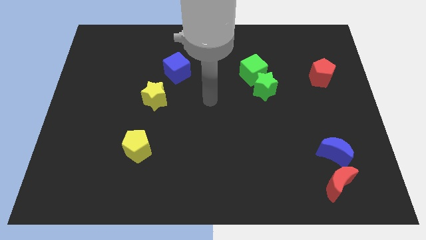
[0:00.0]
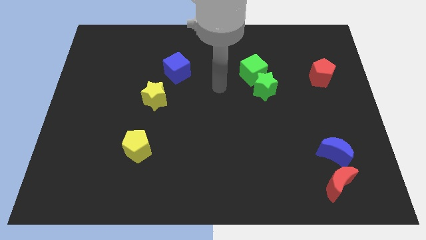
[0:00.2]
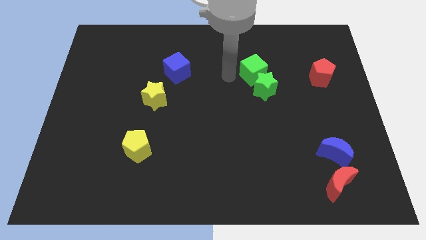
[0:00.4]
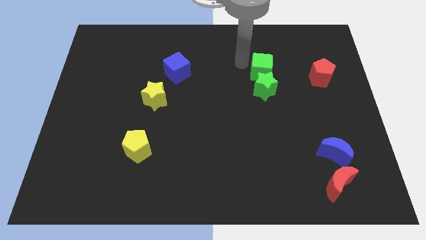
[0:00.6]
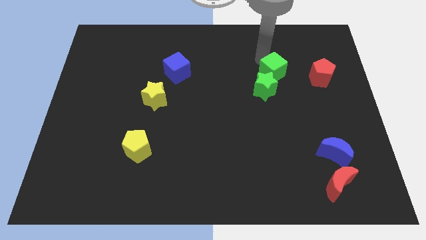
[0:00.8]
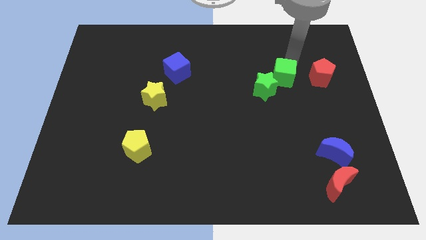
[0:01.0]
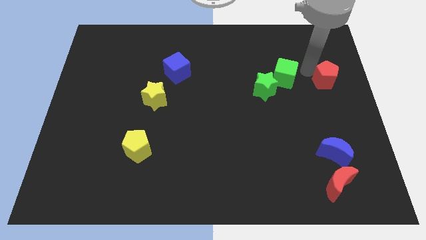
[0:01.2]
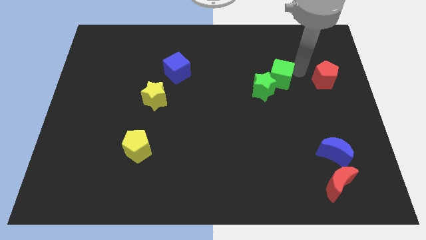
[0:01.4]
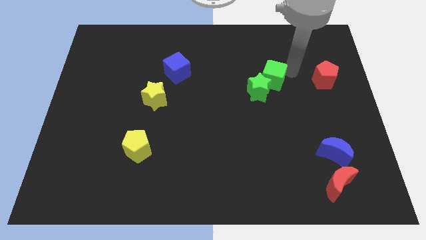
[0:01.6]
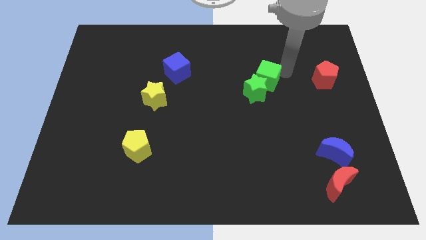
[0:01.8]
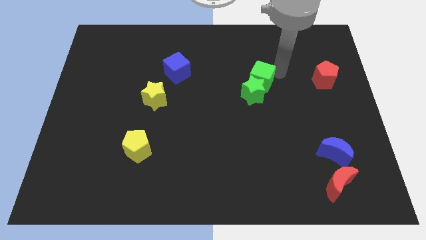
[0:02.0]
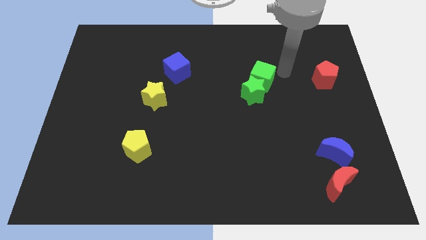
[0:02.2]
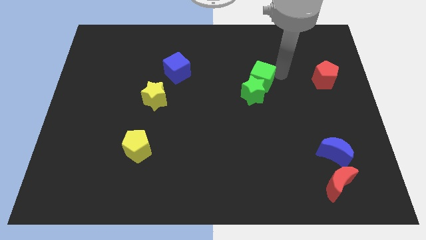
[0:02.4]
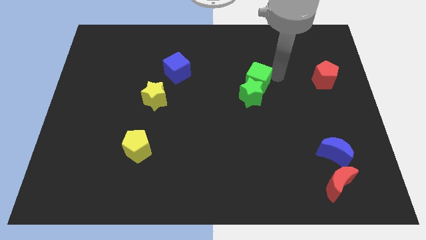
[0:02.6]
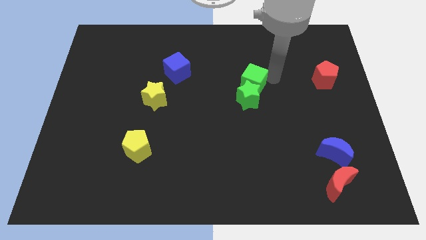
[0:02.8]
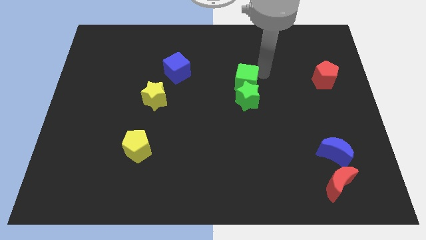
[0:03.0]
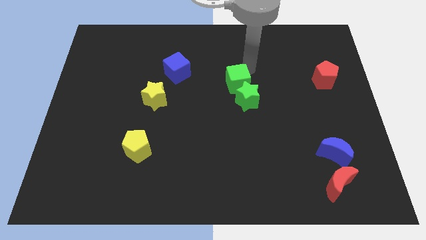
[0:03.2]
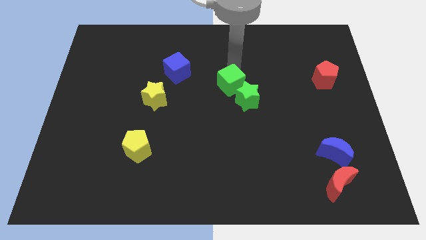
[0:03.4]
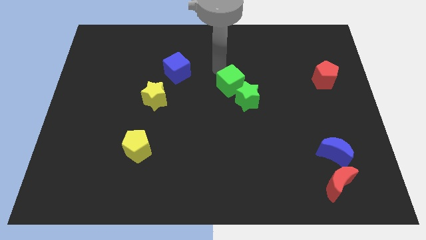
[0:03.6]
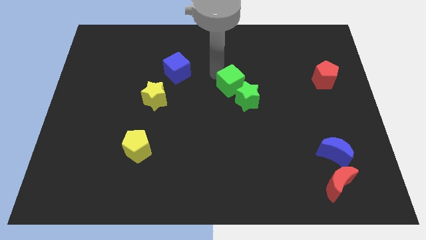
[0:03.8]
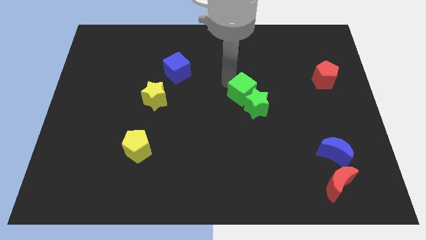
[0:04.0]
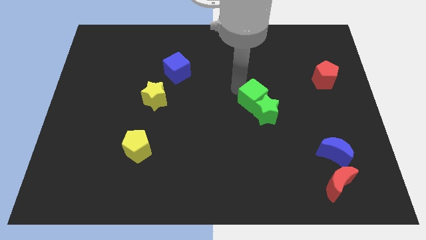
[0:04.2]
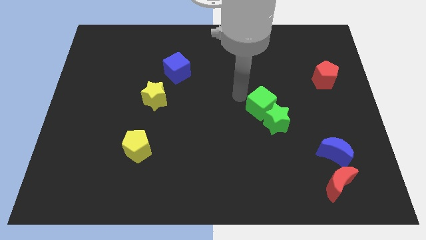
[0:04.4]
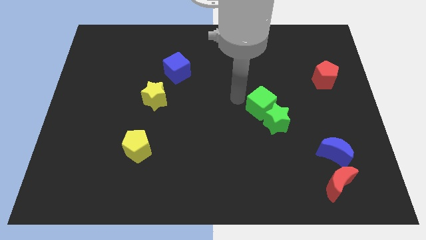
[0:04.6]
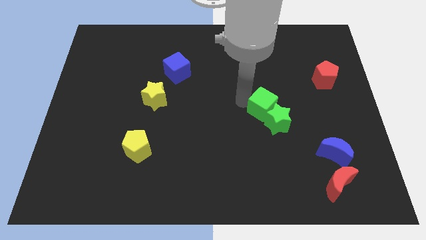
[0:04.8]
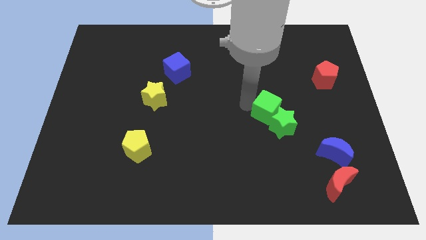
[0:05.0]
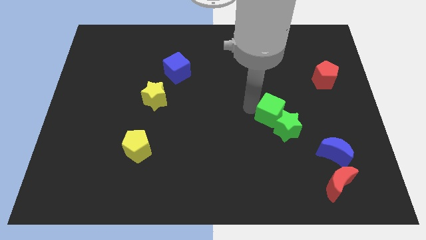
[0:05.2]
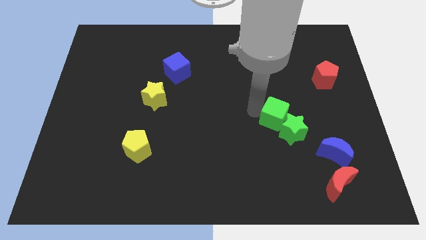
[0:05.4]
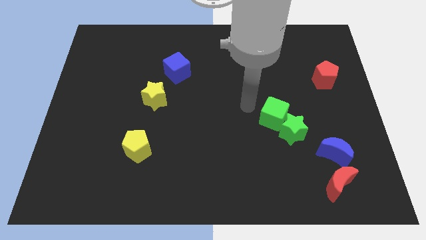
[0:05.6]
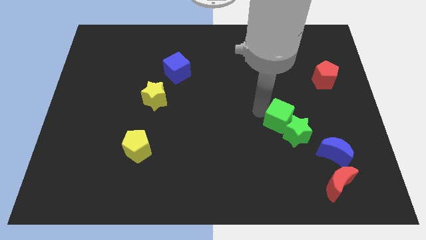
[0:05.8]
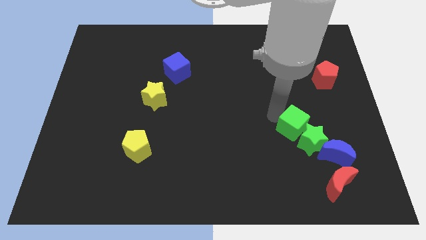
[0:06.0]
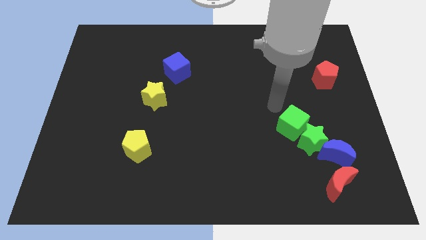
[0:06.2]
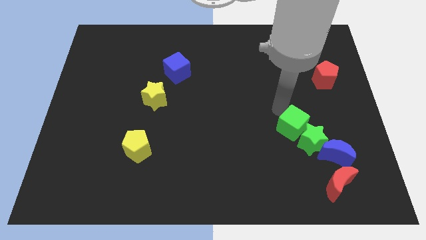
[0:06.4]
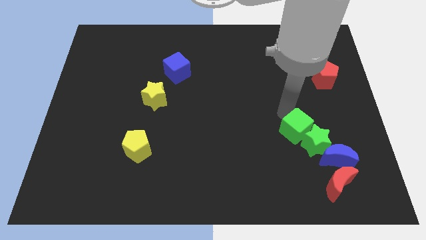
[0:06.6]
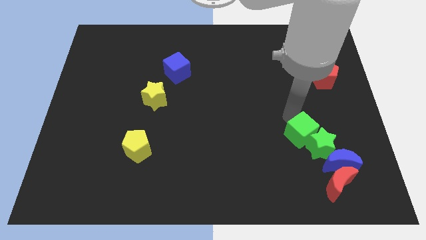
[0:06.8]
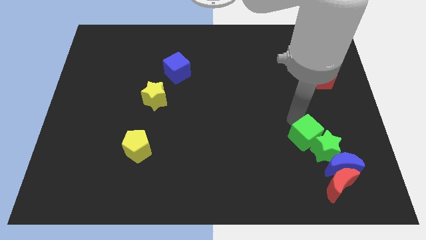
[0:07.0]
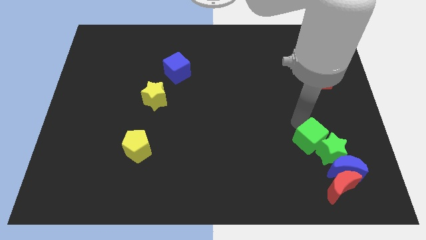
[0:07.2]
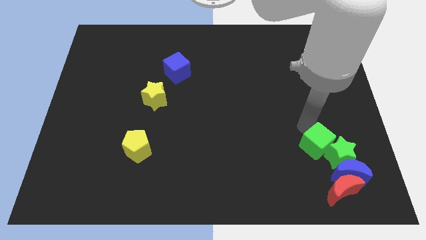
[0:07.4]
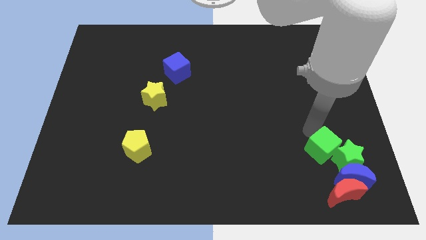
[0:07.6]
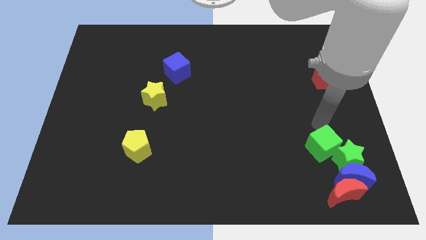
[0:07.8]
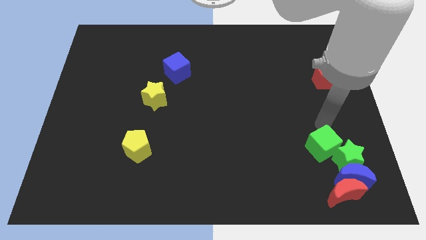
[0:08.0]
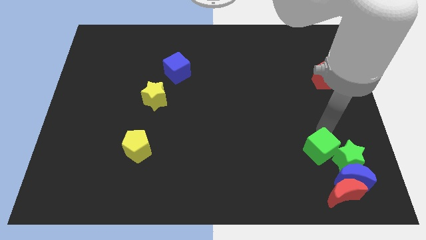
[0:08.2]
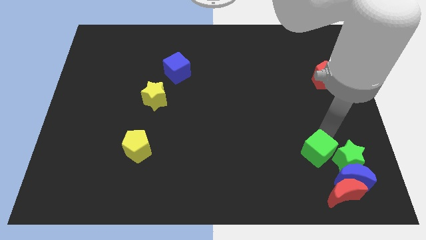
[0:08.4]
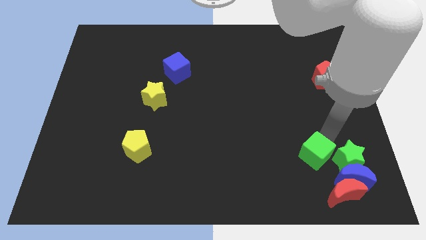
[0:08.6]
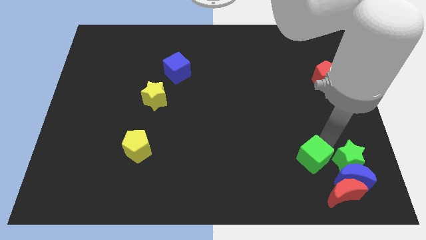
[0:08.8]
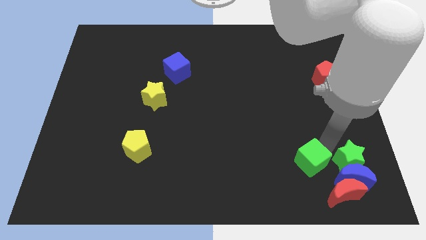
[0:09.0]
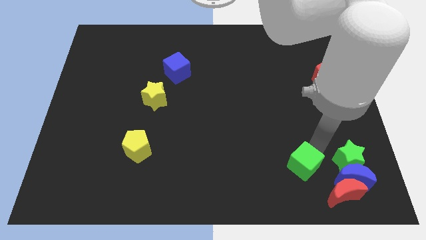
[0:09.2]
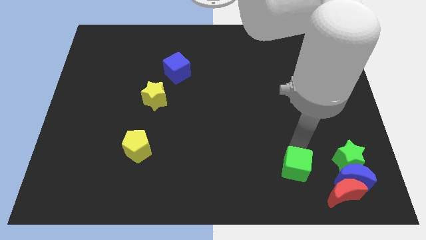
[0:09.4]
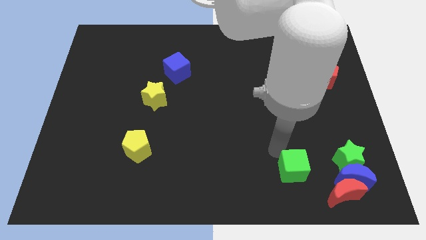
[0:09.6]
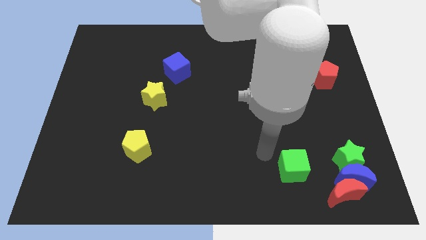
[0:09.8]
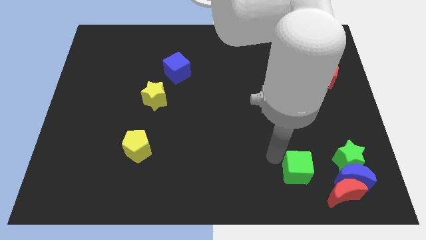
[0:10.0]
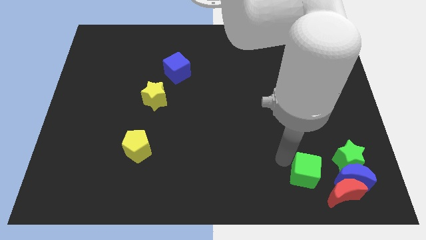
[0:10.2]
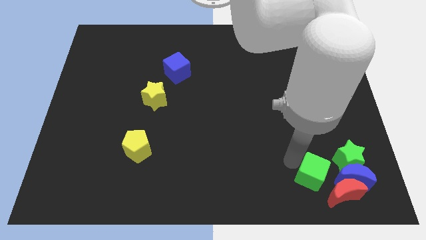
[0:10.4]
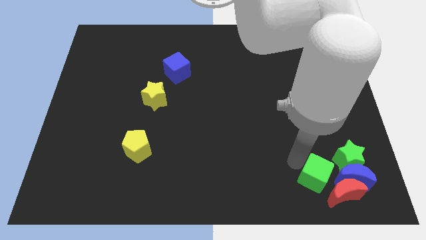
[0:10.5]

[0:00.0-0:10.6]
move the green cube towards the red moon

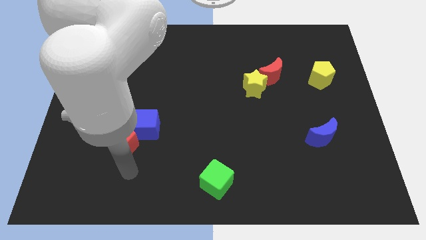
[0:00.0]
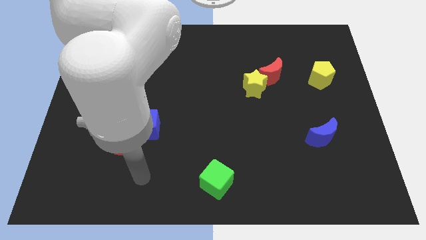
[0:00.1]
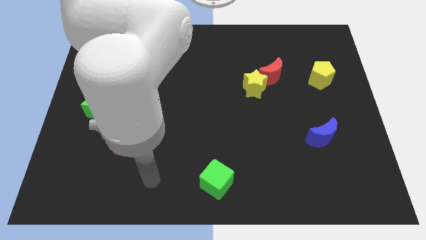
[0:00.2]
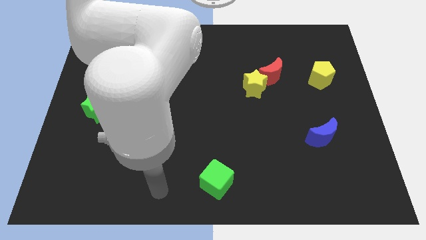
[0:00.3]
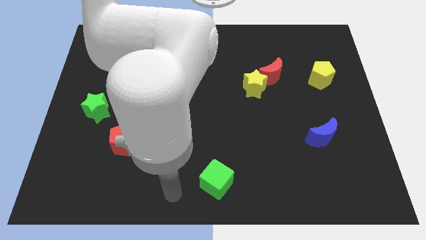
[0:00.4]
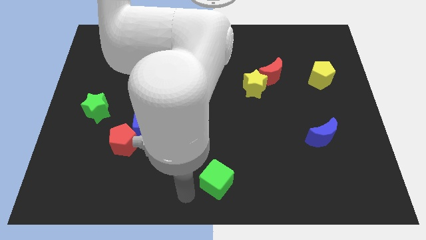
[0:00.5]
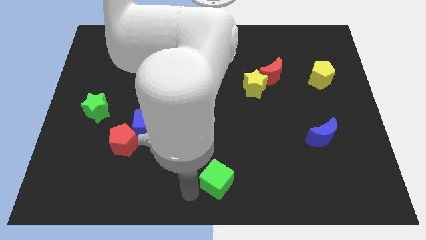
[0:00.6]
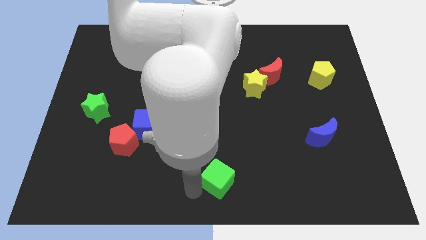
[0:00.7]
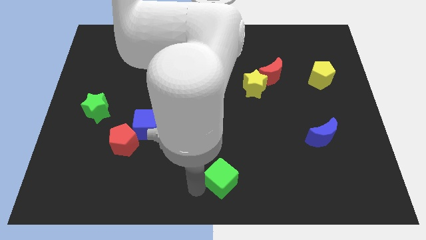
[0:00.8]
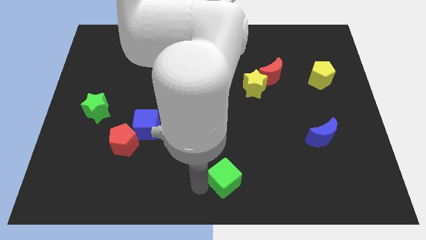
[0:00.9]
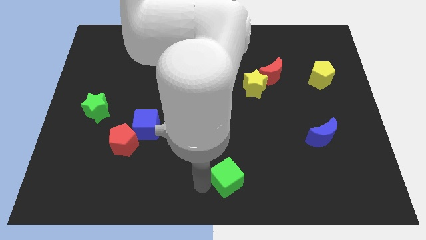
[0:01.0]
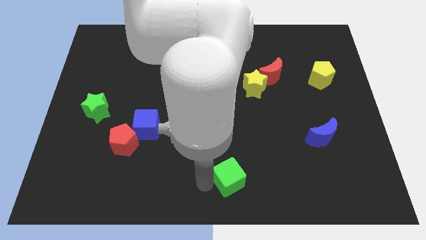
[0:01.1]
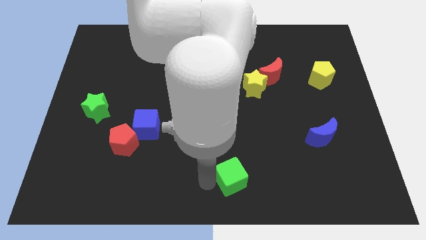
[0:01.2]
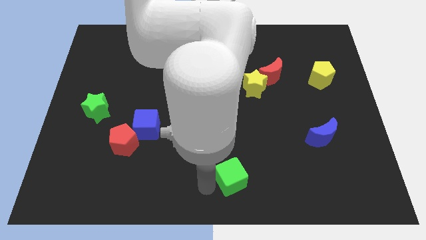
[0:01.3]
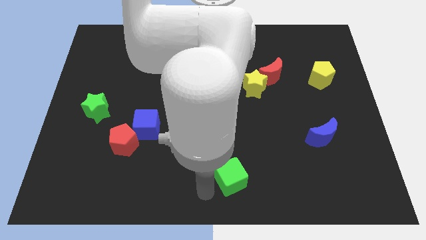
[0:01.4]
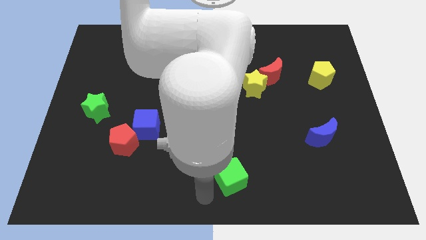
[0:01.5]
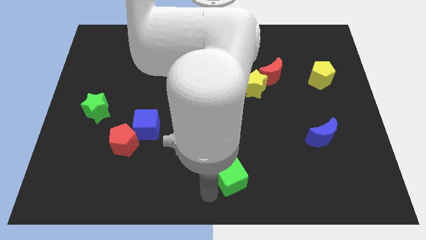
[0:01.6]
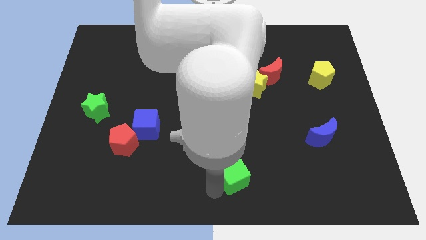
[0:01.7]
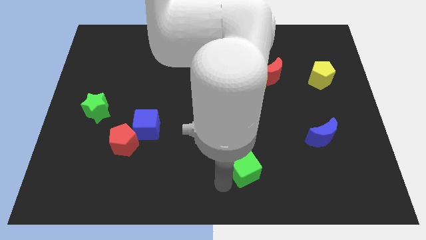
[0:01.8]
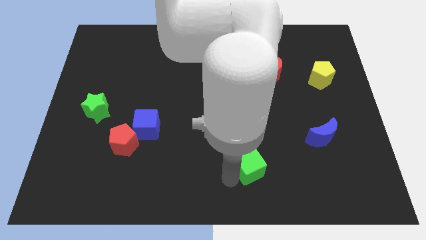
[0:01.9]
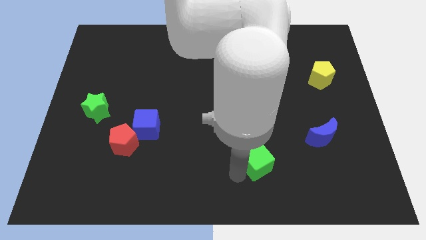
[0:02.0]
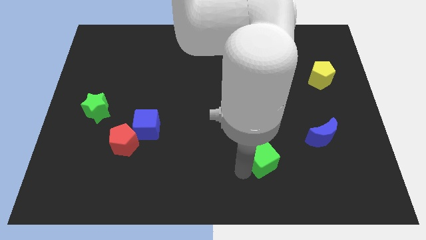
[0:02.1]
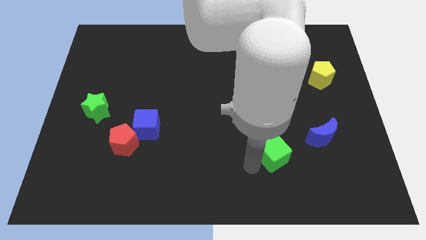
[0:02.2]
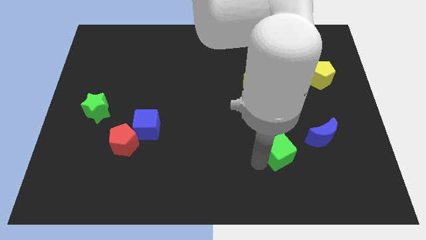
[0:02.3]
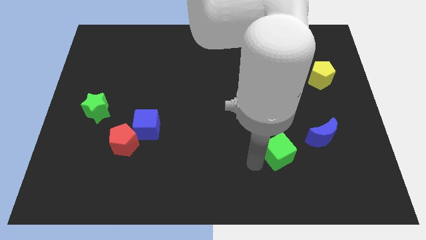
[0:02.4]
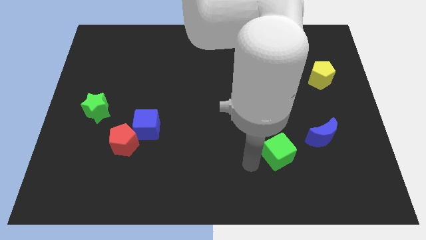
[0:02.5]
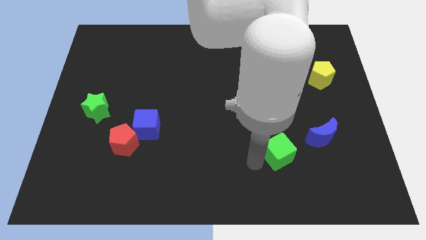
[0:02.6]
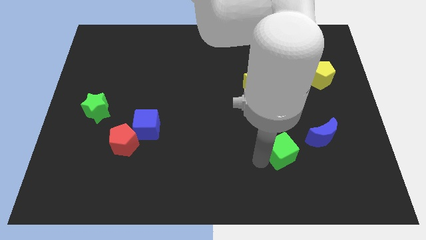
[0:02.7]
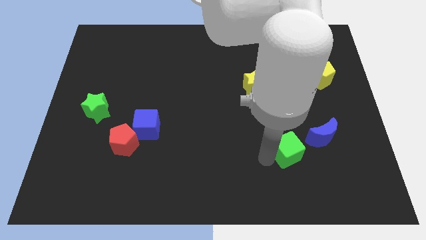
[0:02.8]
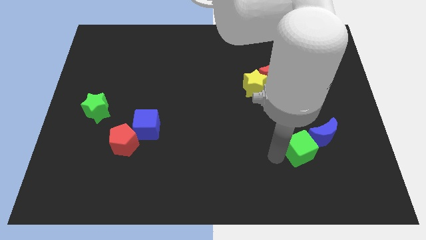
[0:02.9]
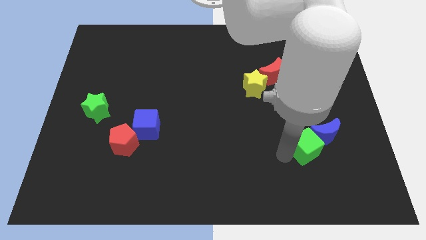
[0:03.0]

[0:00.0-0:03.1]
push the green cube next to the blue moon
